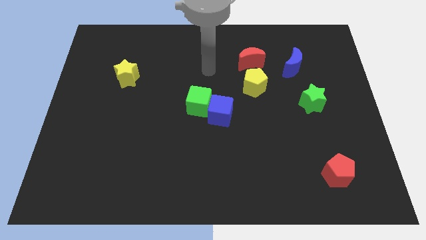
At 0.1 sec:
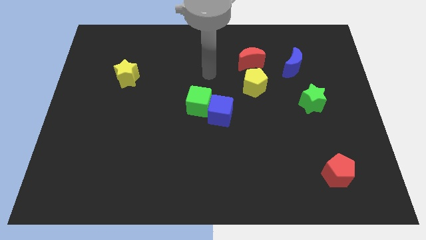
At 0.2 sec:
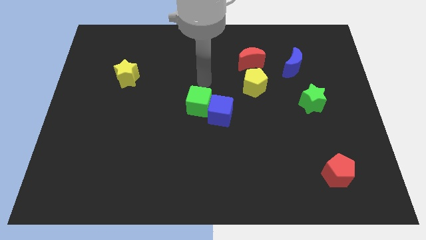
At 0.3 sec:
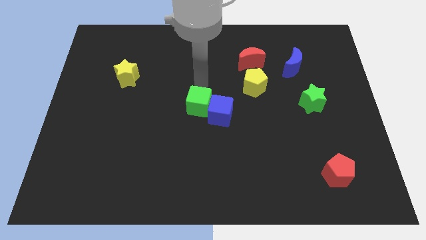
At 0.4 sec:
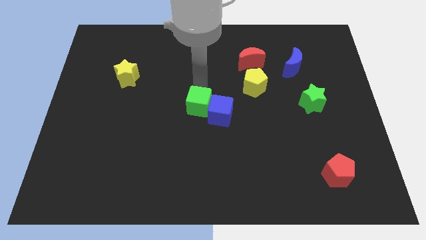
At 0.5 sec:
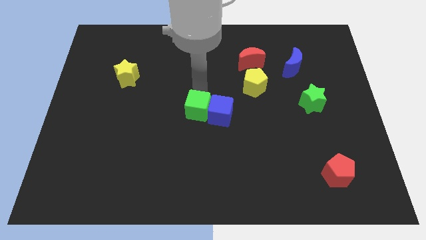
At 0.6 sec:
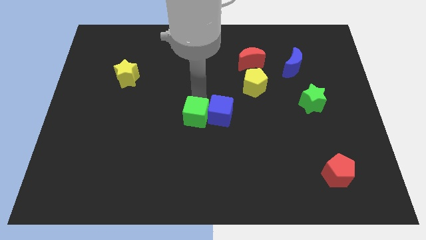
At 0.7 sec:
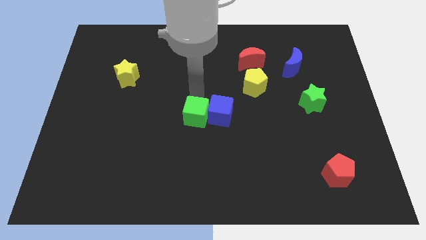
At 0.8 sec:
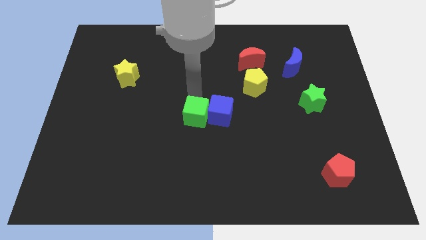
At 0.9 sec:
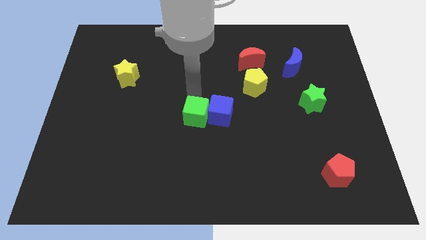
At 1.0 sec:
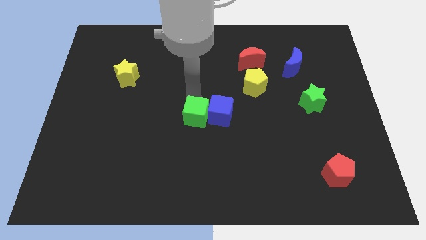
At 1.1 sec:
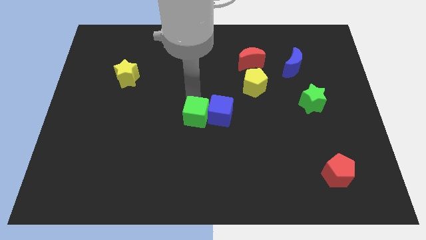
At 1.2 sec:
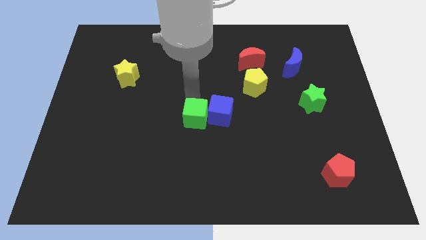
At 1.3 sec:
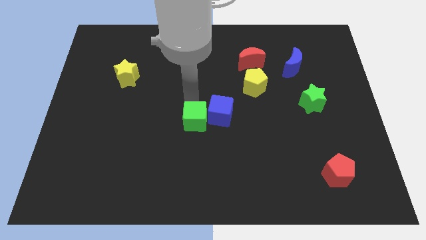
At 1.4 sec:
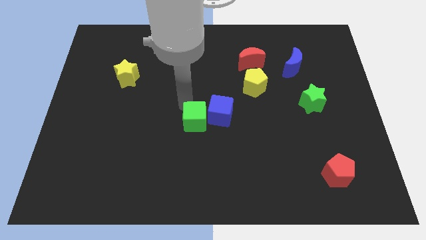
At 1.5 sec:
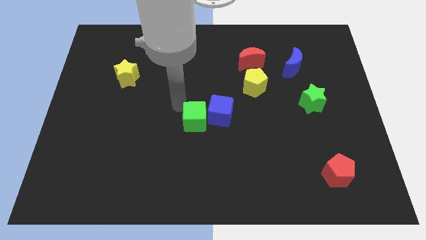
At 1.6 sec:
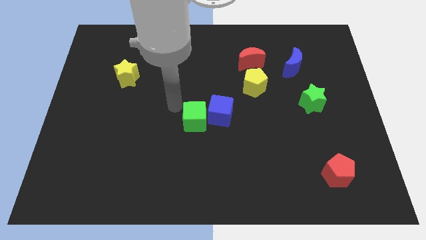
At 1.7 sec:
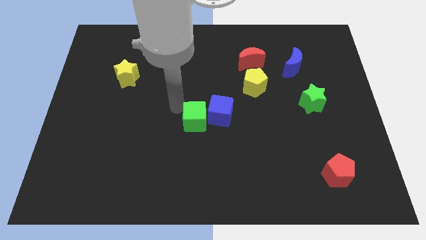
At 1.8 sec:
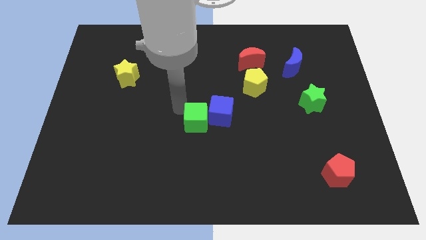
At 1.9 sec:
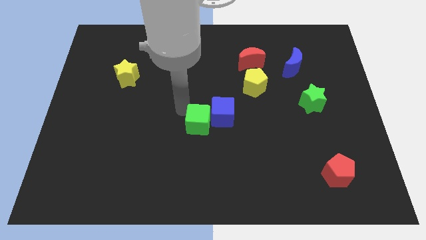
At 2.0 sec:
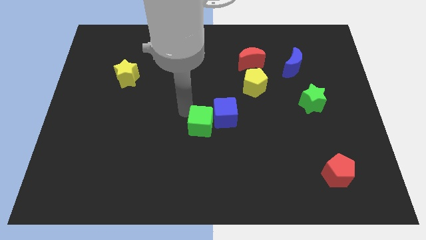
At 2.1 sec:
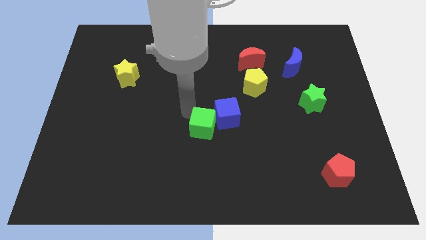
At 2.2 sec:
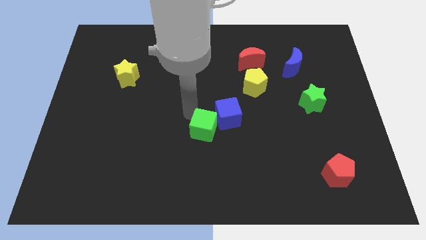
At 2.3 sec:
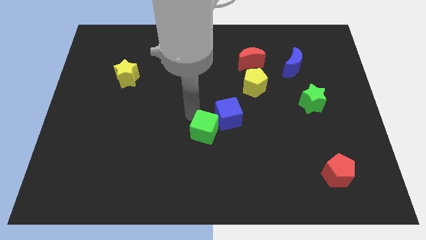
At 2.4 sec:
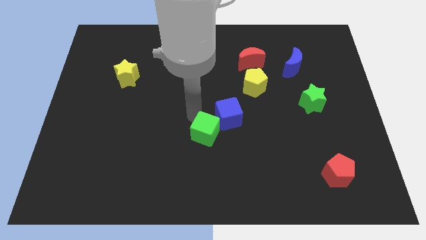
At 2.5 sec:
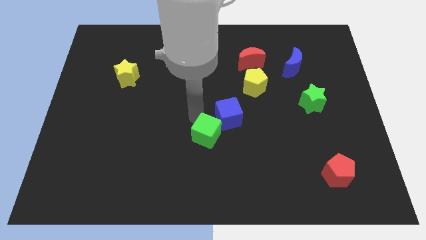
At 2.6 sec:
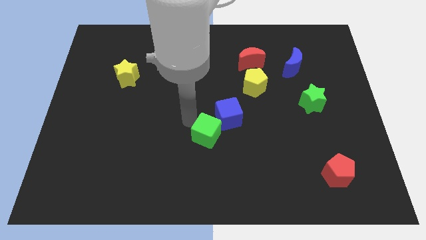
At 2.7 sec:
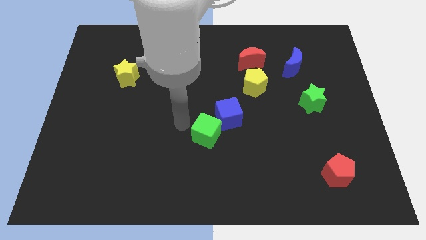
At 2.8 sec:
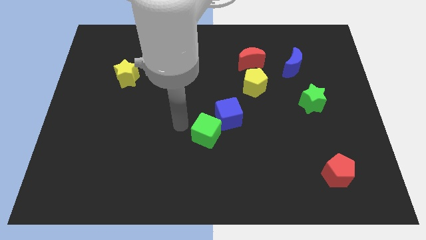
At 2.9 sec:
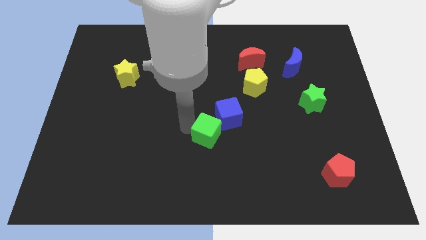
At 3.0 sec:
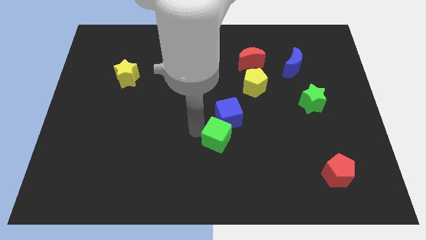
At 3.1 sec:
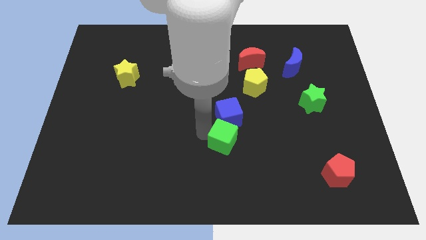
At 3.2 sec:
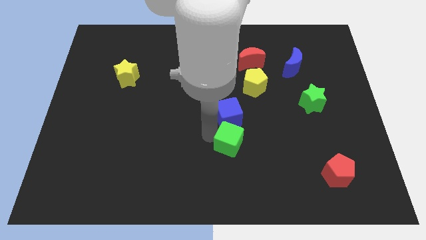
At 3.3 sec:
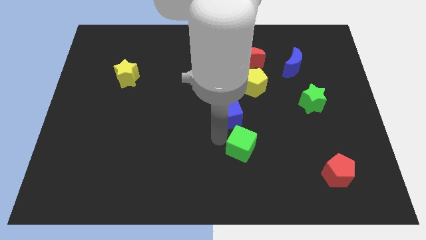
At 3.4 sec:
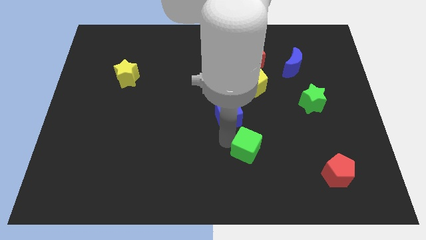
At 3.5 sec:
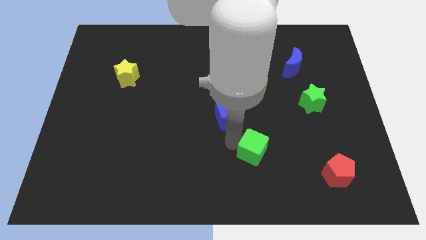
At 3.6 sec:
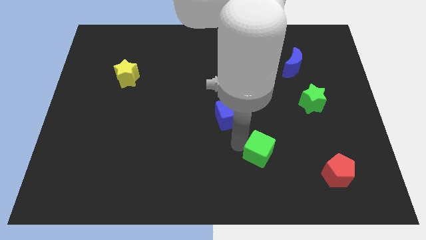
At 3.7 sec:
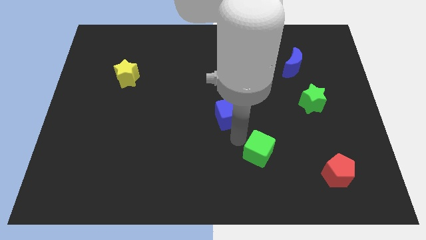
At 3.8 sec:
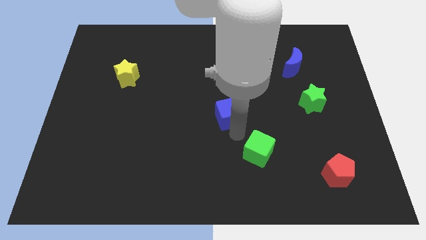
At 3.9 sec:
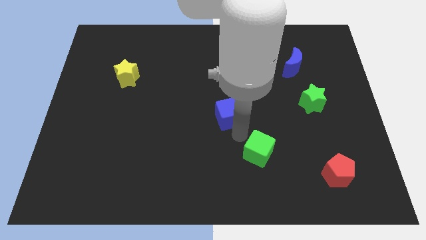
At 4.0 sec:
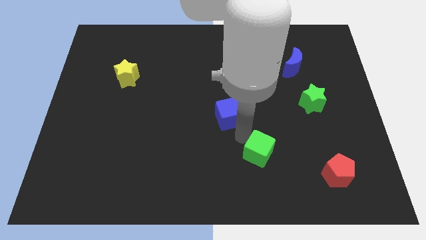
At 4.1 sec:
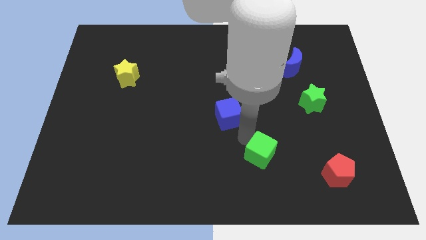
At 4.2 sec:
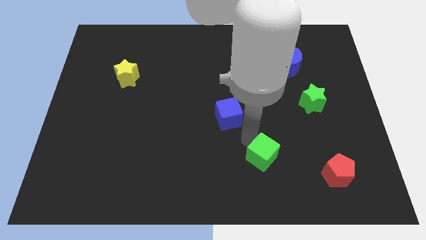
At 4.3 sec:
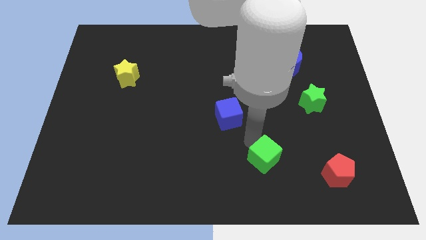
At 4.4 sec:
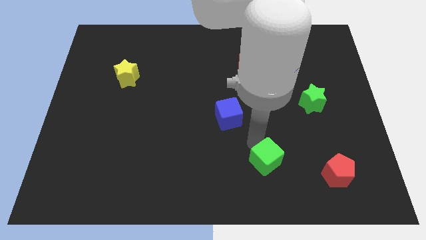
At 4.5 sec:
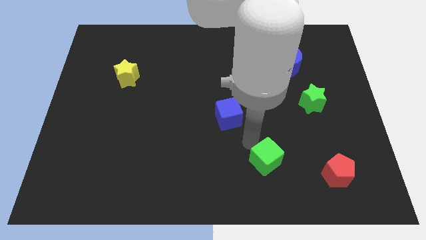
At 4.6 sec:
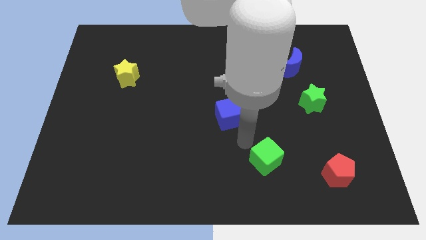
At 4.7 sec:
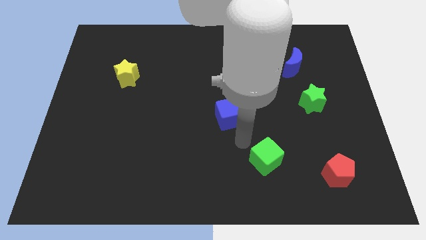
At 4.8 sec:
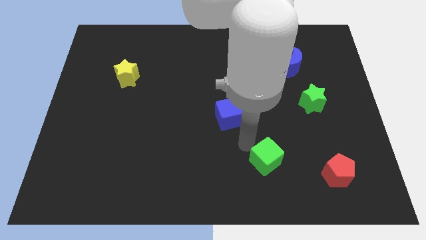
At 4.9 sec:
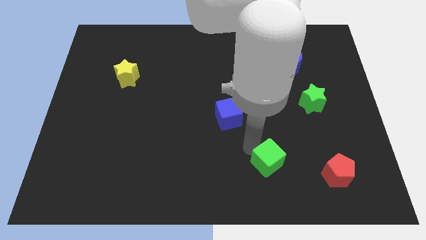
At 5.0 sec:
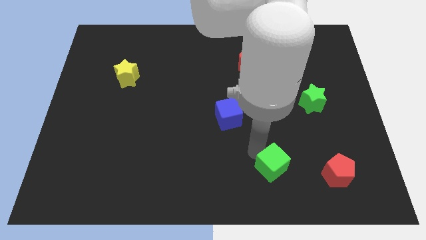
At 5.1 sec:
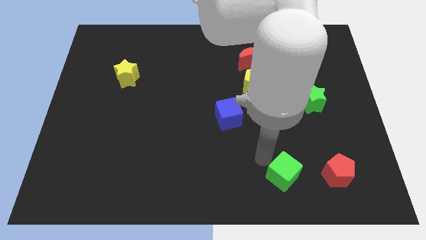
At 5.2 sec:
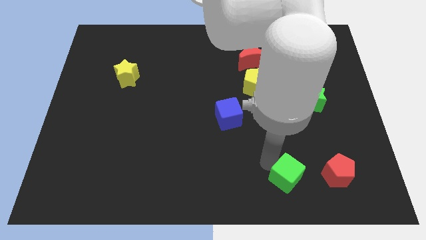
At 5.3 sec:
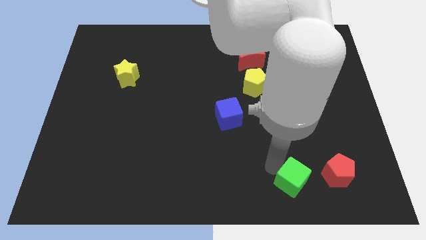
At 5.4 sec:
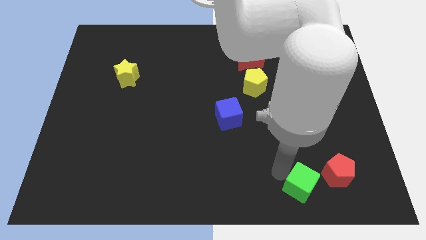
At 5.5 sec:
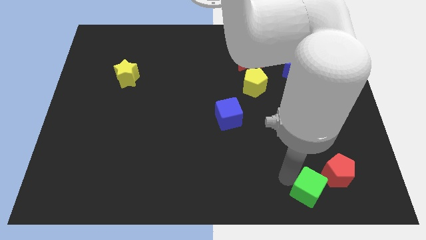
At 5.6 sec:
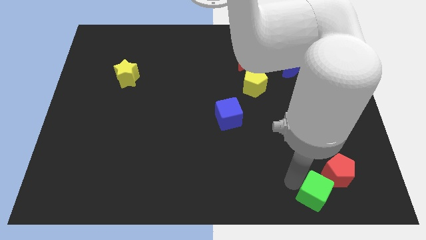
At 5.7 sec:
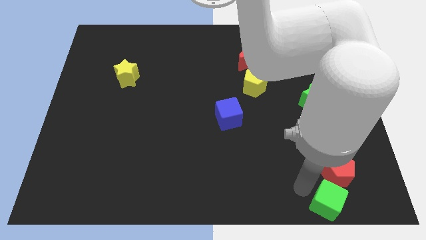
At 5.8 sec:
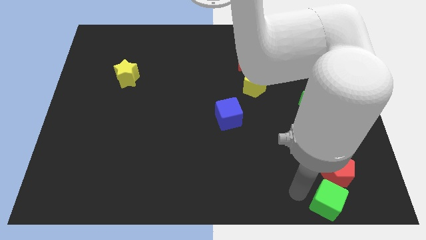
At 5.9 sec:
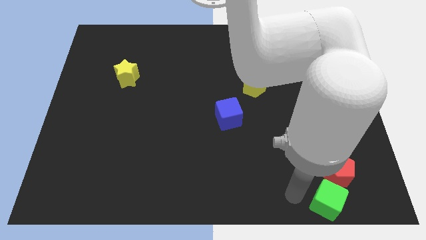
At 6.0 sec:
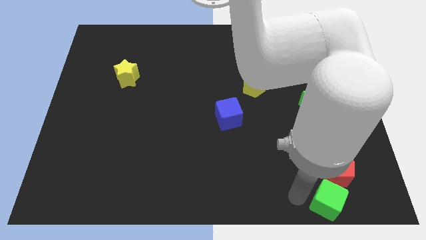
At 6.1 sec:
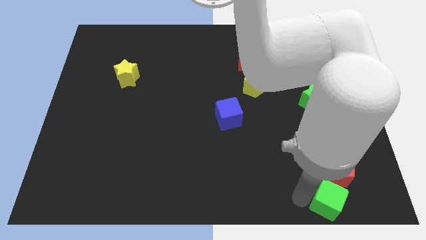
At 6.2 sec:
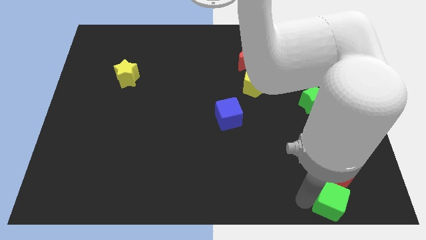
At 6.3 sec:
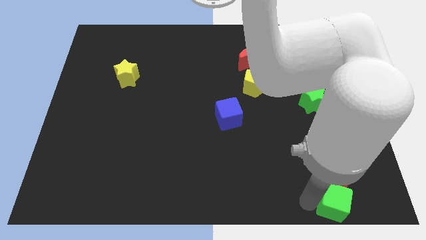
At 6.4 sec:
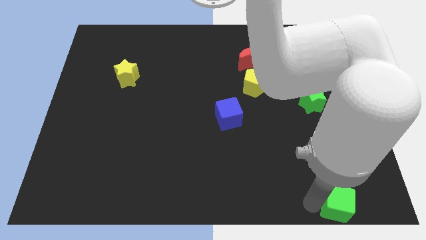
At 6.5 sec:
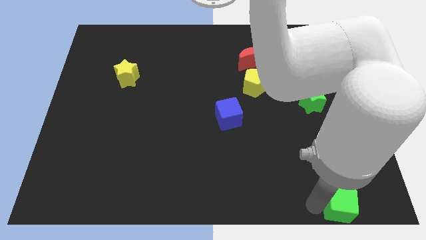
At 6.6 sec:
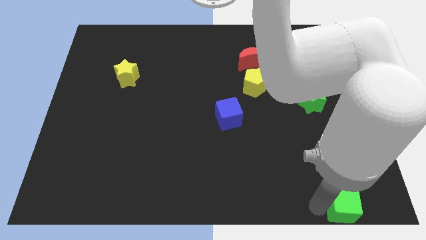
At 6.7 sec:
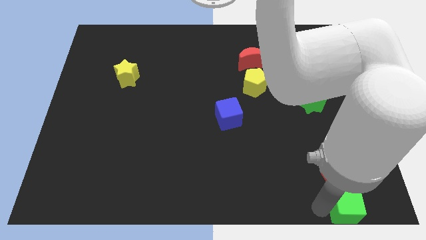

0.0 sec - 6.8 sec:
move the green cube to the bottom right corner
